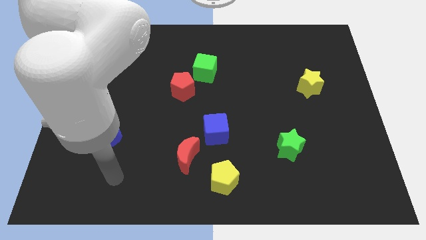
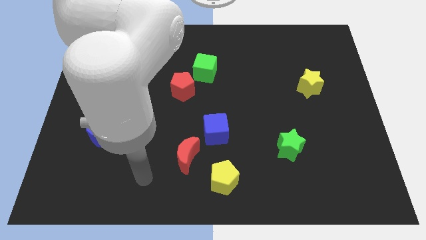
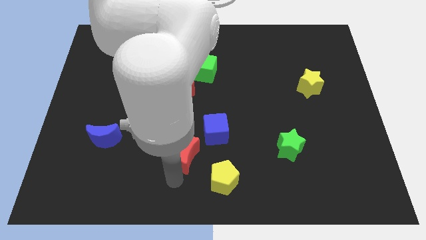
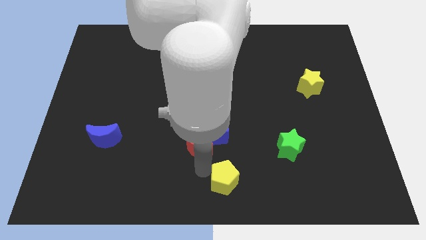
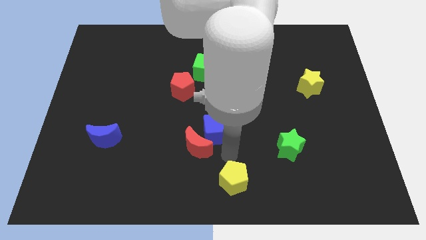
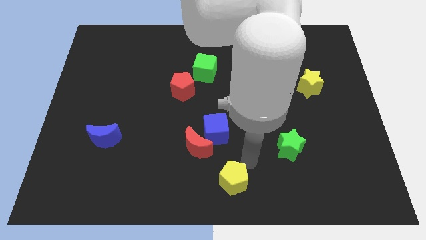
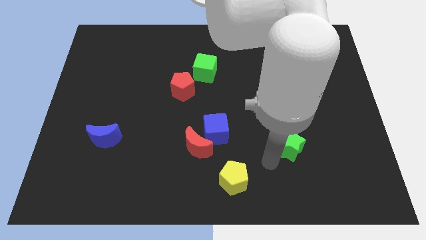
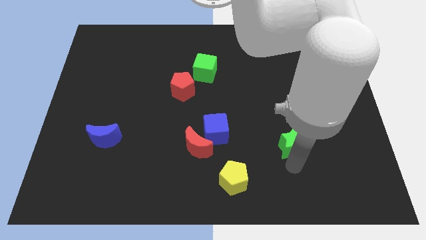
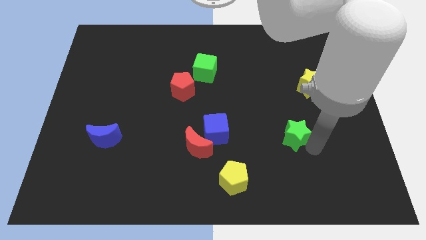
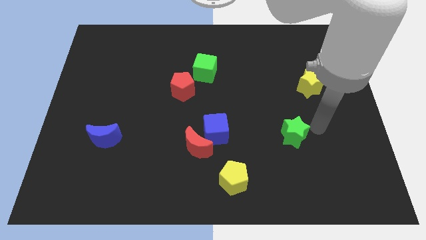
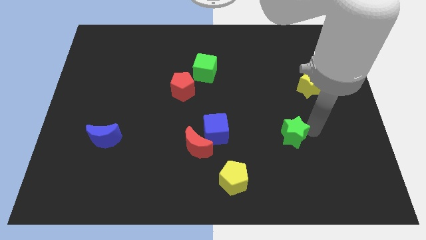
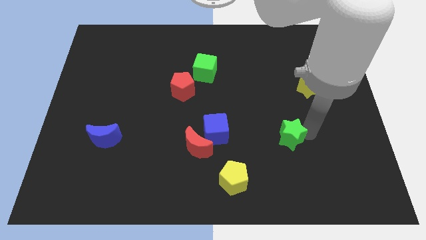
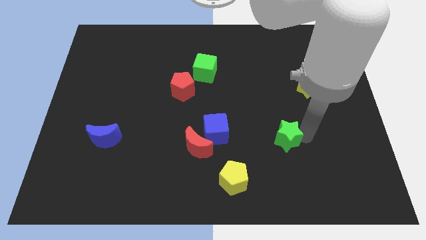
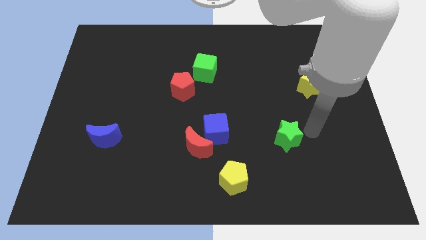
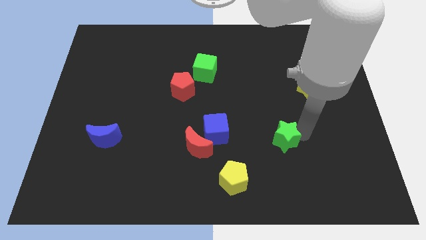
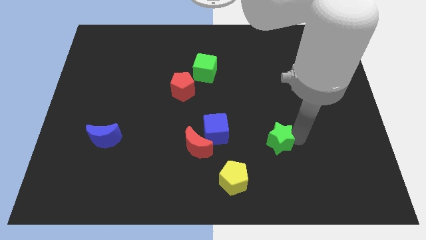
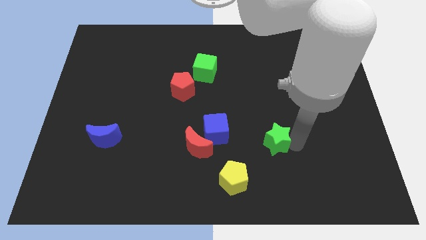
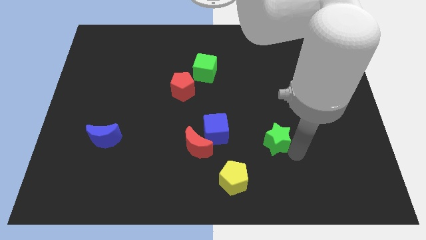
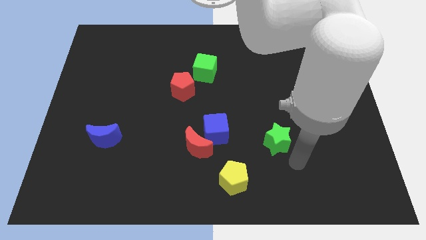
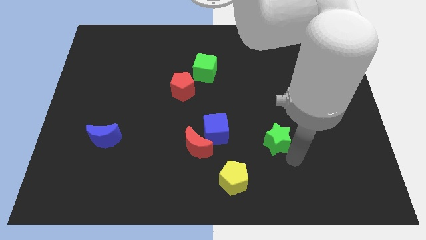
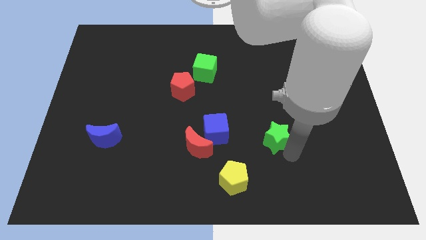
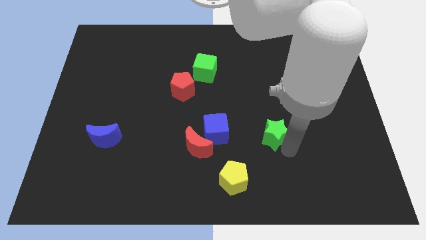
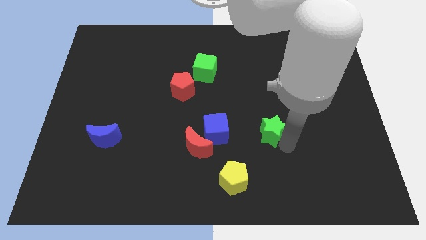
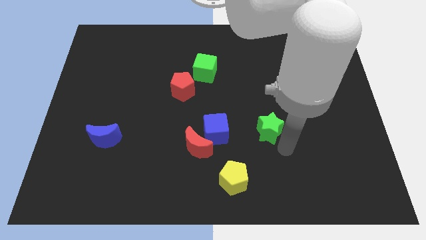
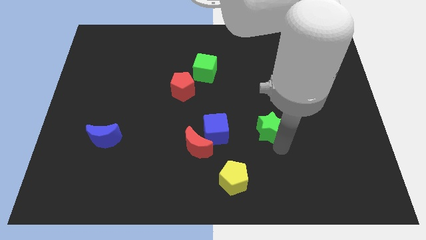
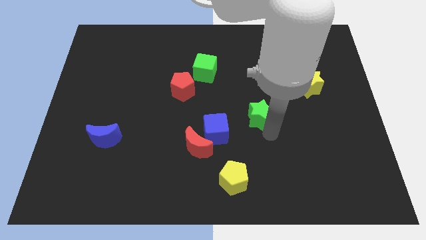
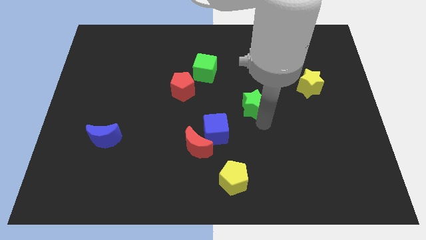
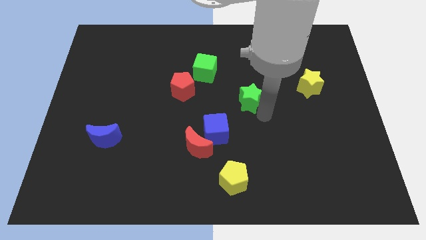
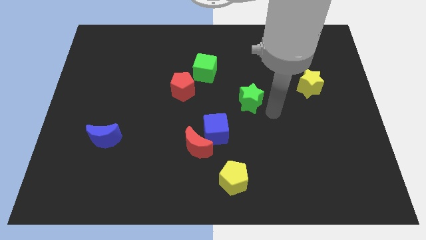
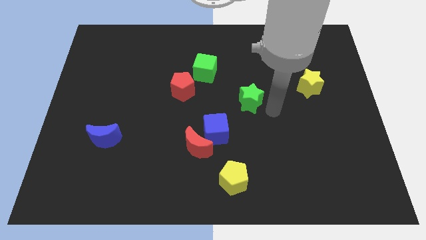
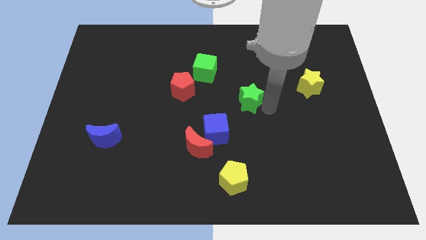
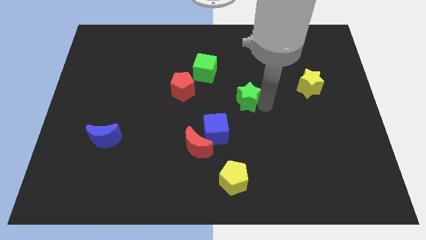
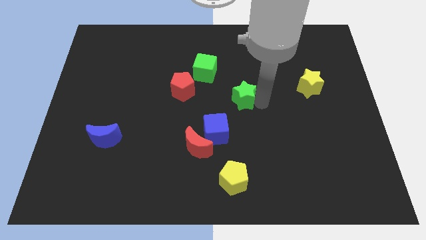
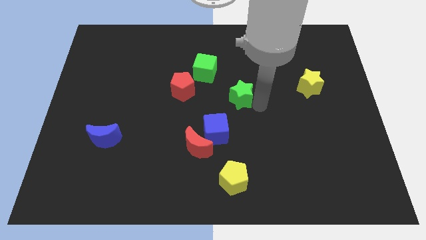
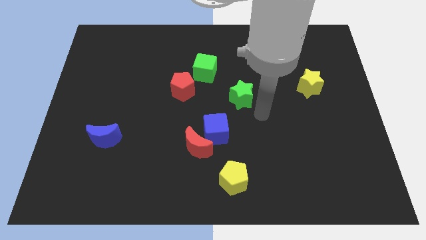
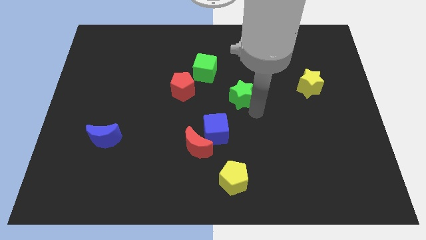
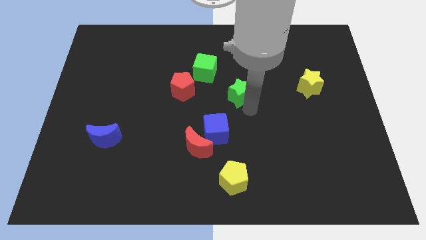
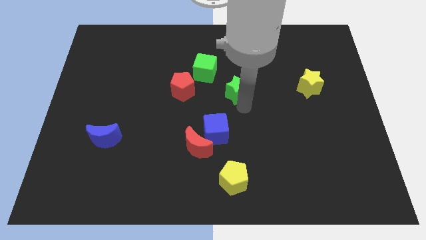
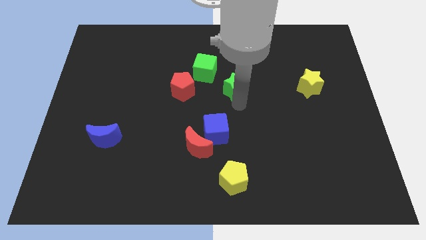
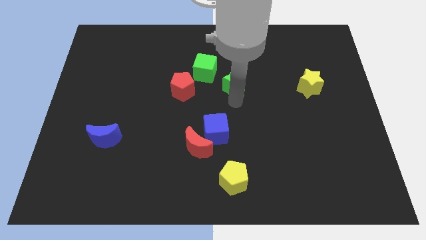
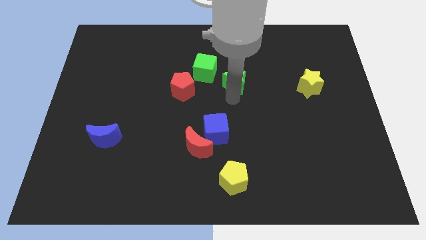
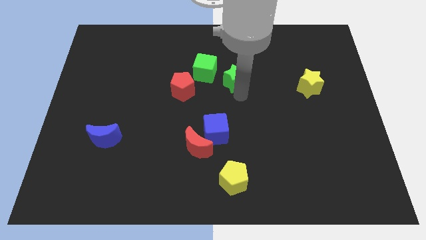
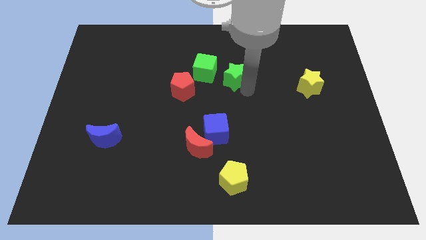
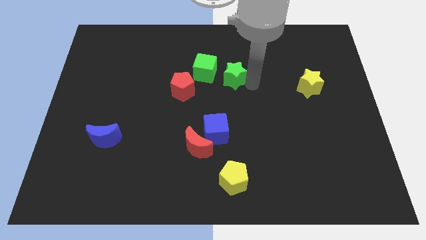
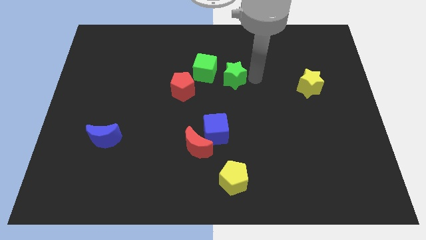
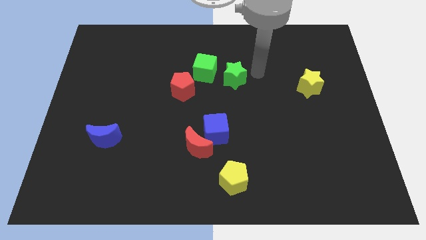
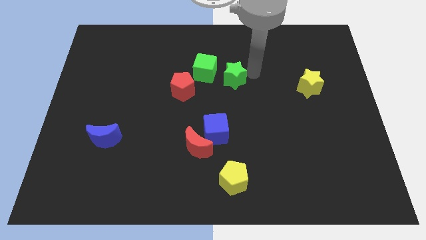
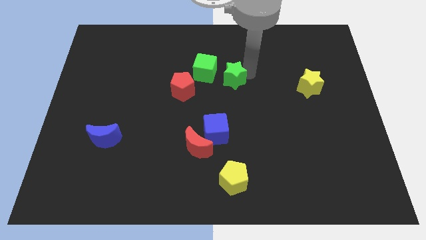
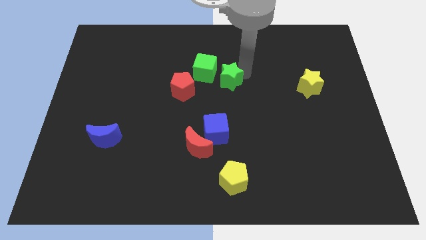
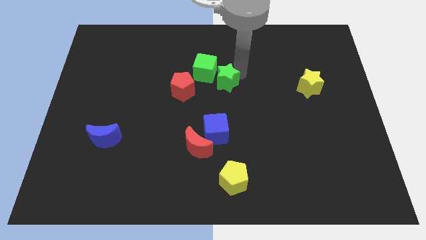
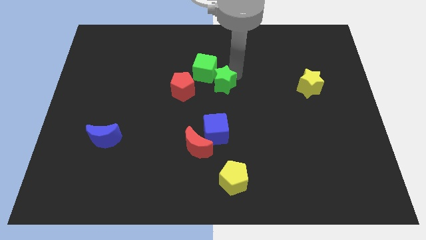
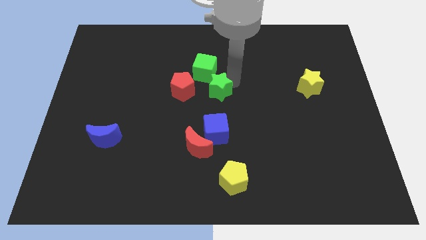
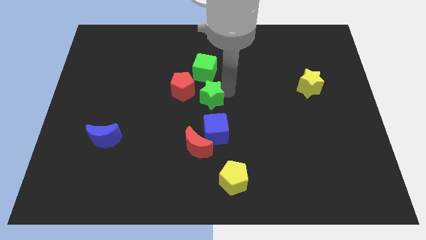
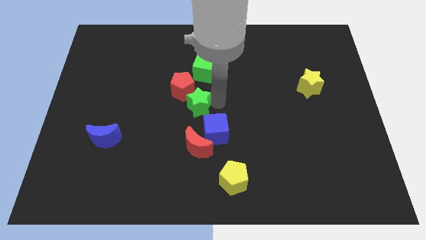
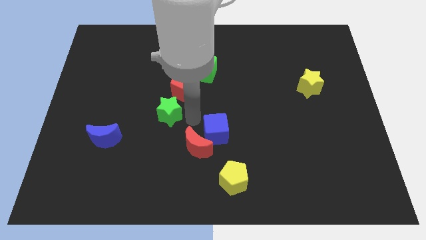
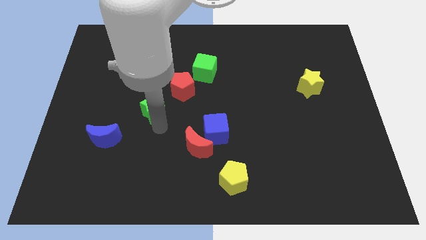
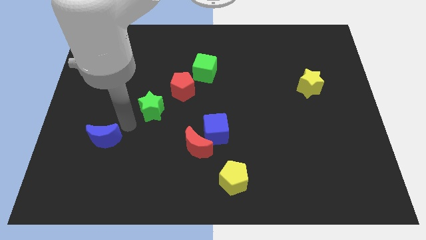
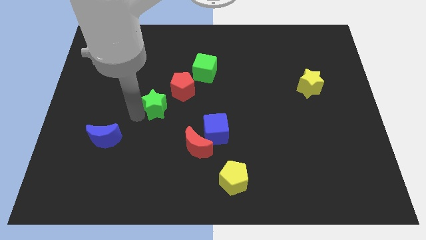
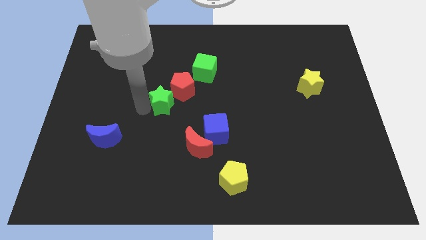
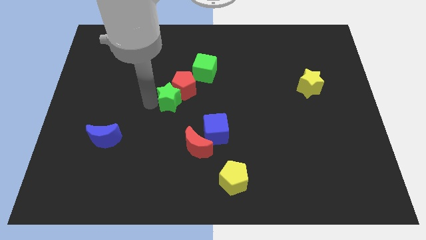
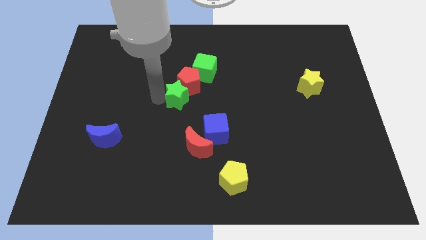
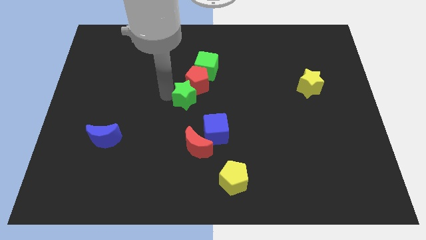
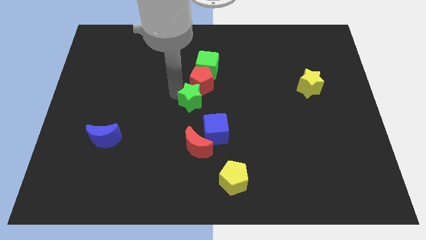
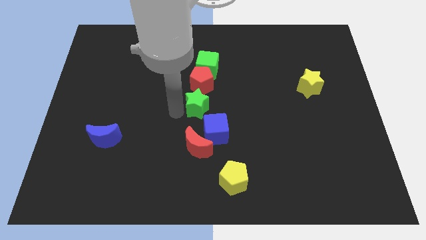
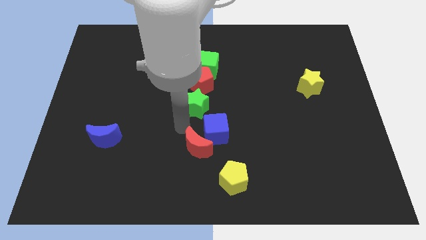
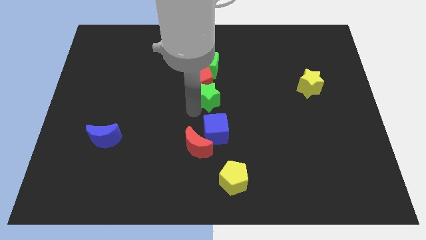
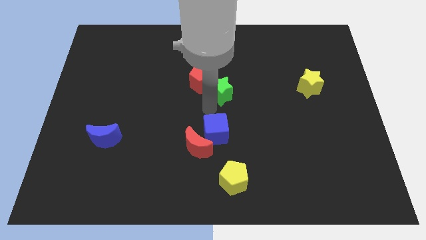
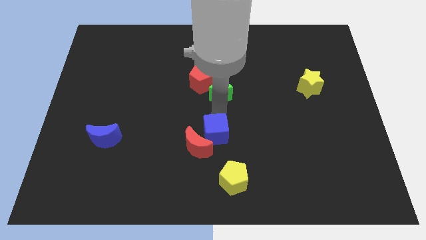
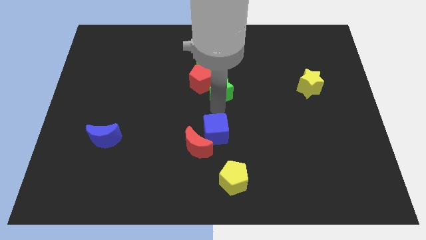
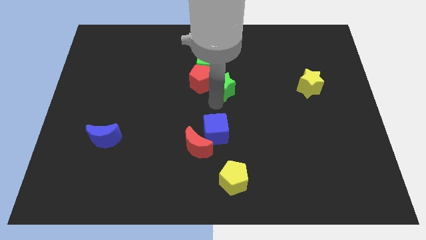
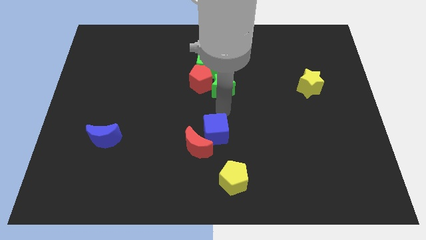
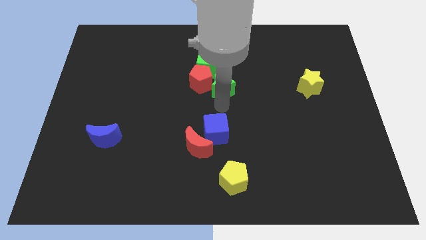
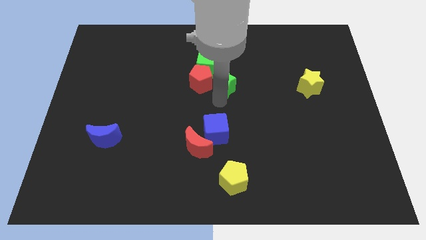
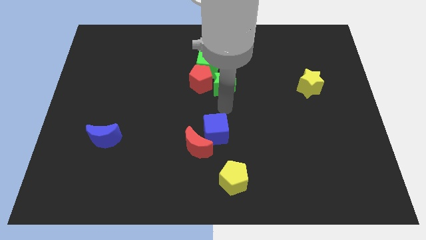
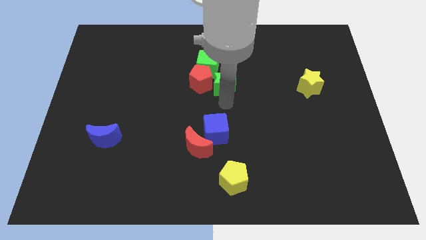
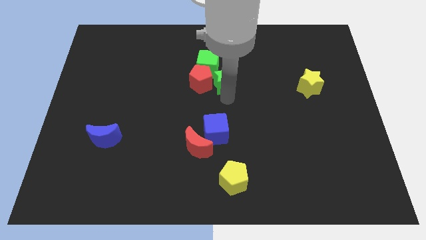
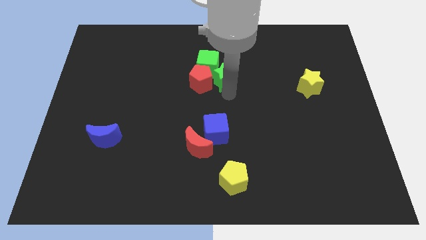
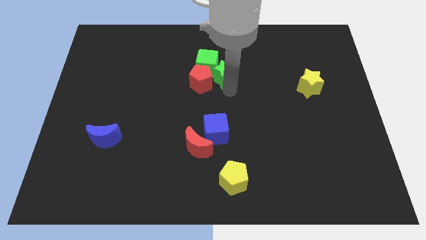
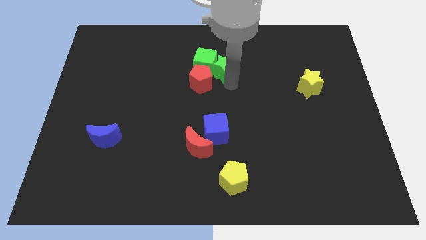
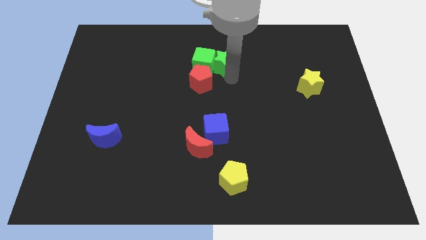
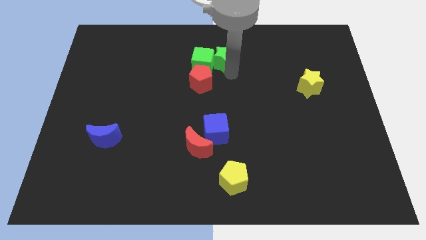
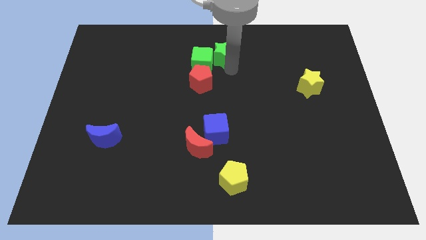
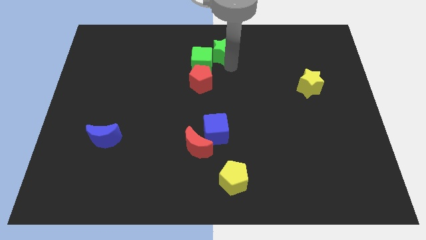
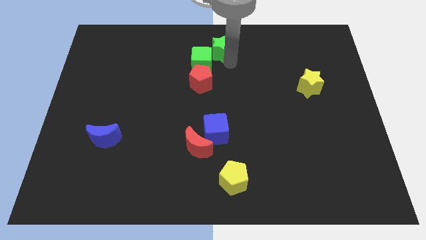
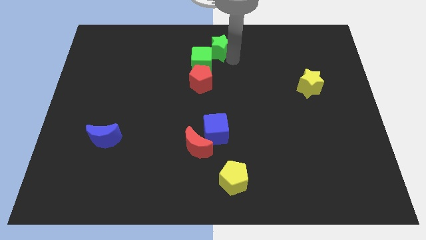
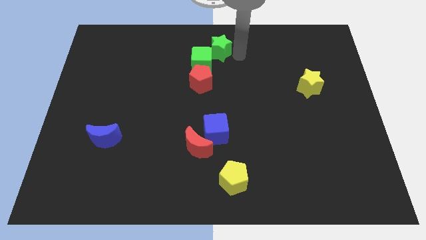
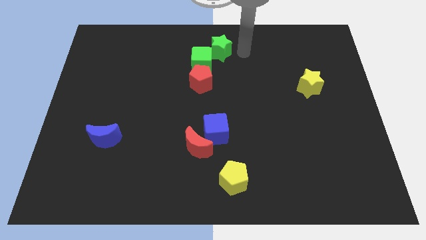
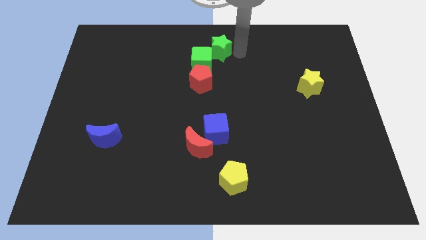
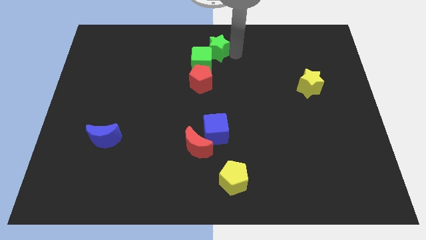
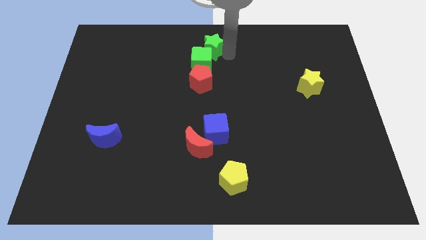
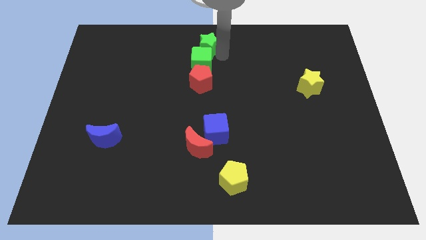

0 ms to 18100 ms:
slide the green star to the top left of the green cube
